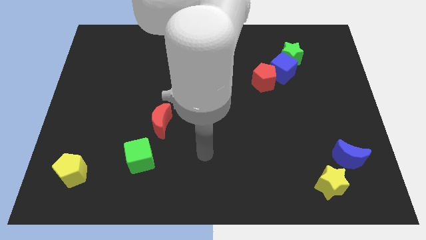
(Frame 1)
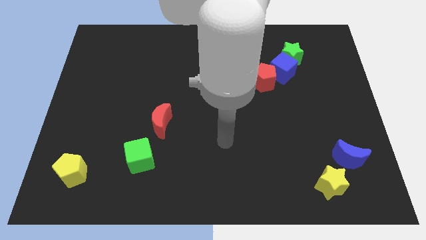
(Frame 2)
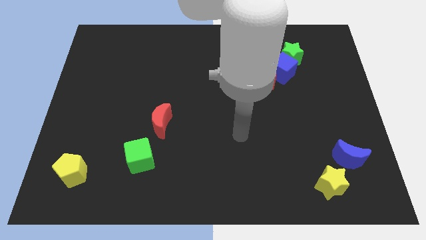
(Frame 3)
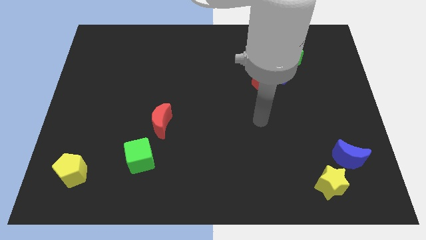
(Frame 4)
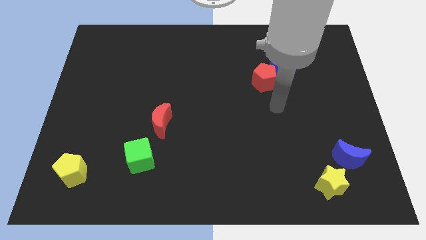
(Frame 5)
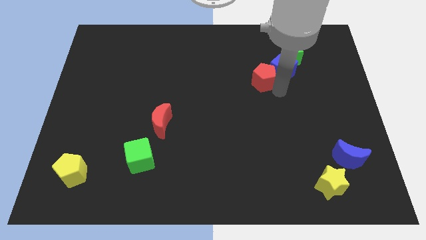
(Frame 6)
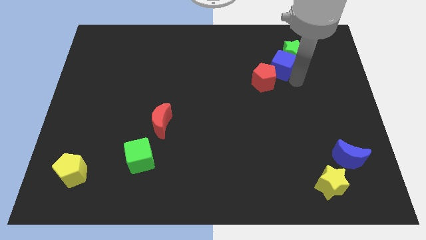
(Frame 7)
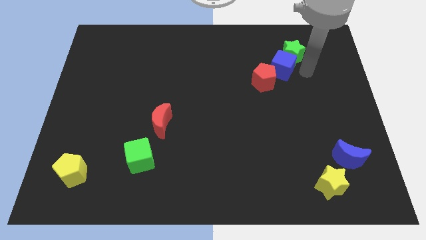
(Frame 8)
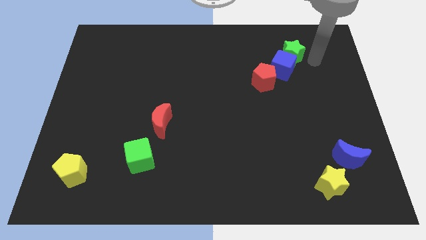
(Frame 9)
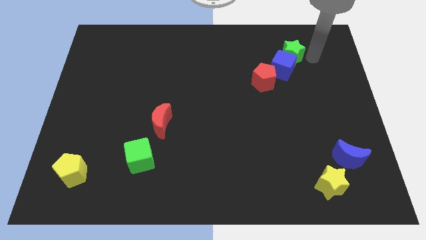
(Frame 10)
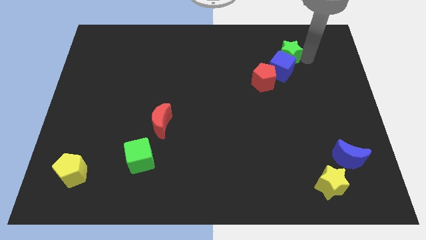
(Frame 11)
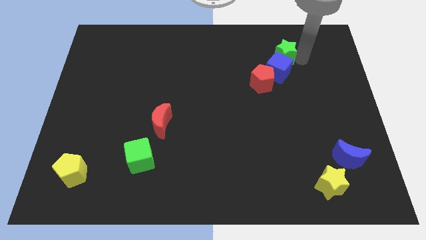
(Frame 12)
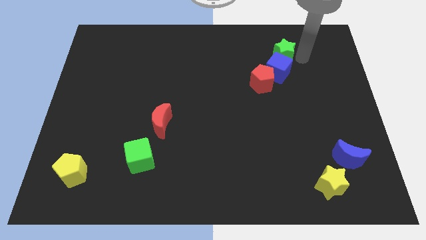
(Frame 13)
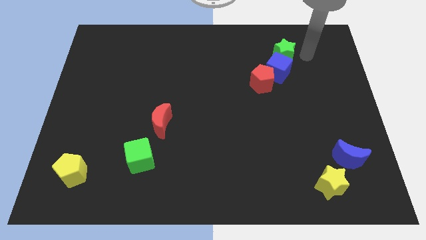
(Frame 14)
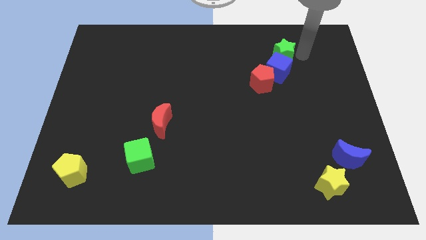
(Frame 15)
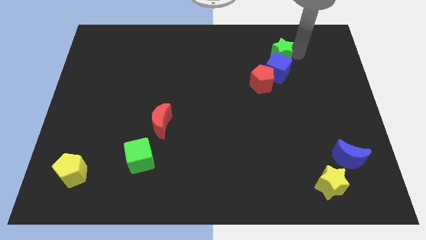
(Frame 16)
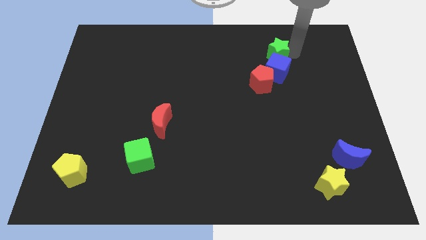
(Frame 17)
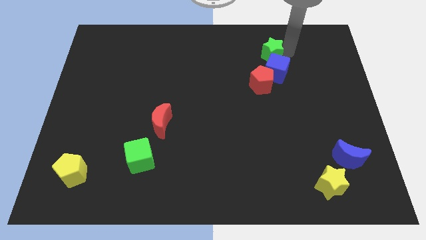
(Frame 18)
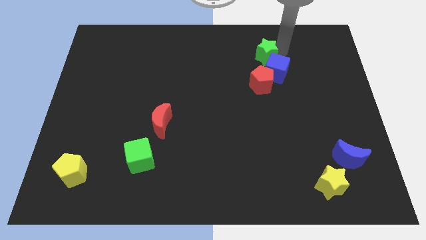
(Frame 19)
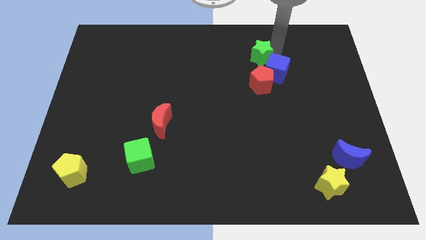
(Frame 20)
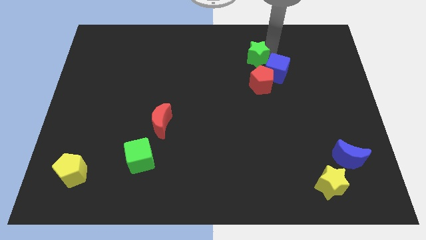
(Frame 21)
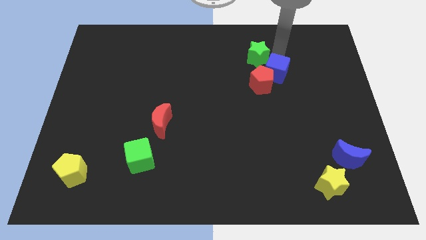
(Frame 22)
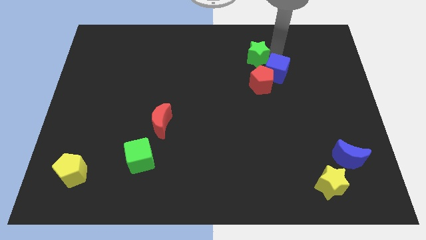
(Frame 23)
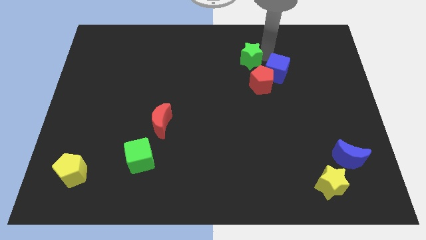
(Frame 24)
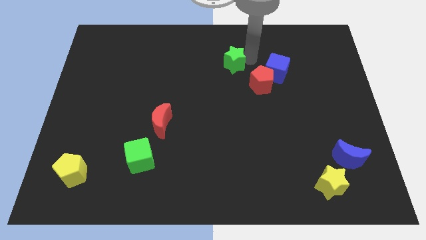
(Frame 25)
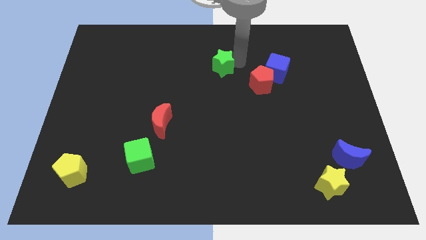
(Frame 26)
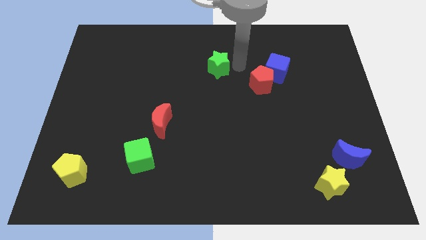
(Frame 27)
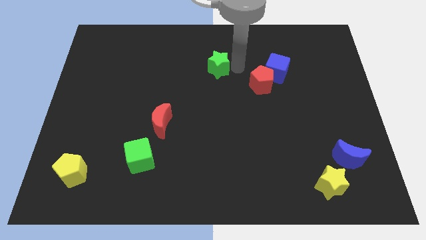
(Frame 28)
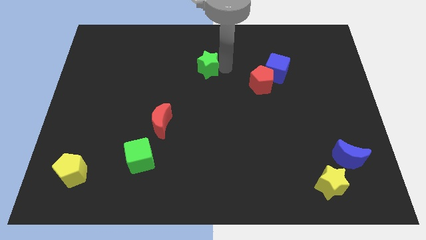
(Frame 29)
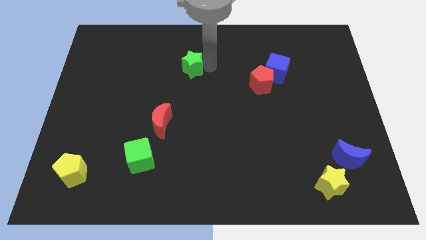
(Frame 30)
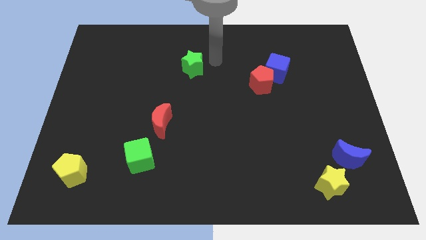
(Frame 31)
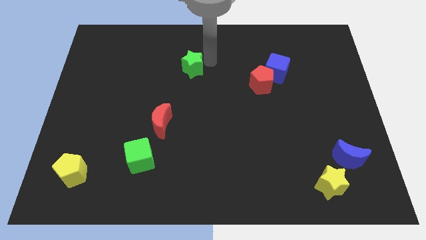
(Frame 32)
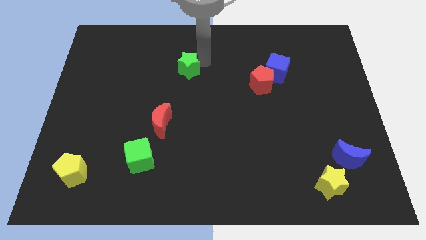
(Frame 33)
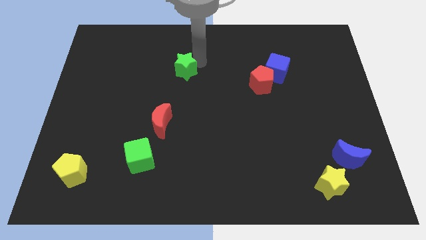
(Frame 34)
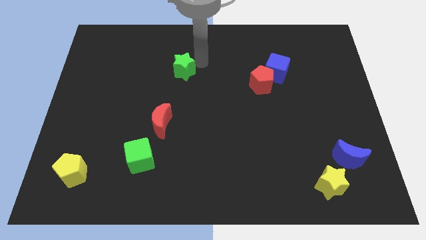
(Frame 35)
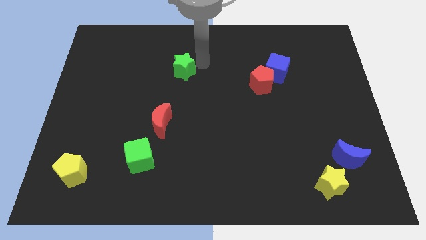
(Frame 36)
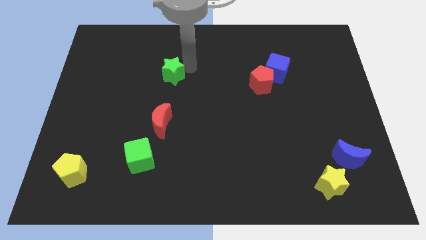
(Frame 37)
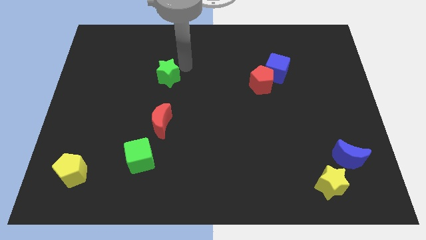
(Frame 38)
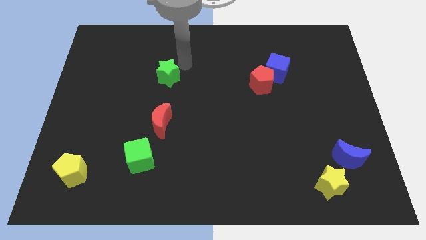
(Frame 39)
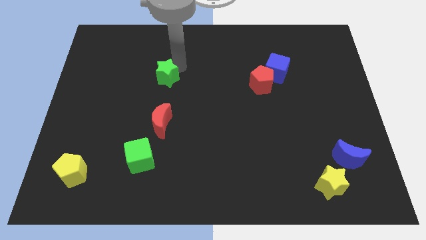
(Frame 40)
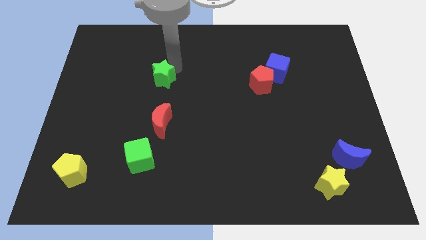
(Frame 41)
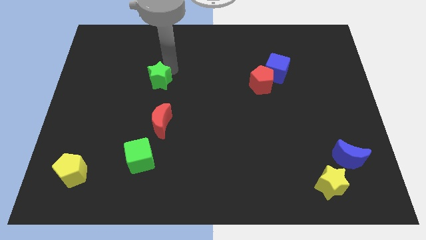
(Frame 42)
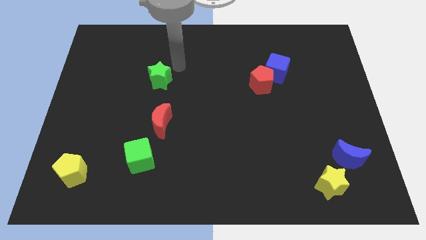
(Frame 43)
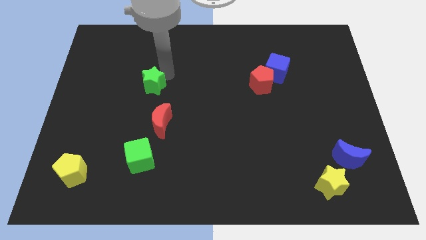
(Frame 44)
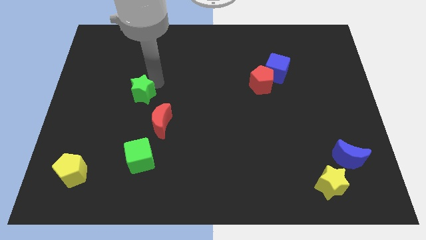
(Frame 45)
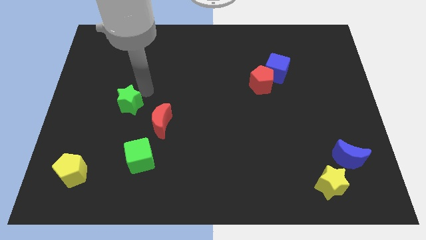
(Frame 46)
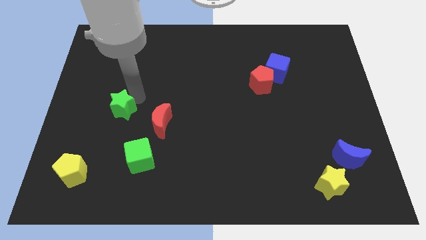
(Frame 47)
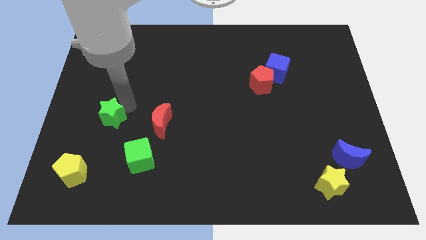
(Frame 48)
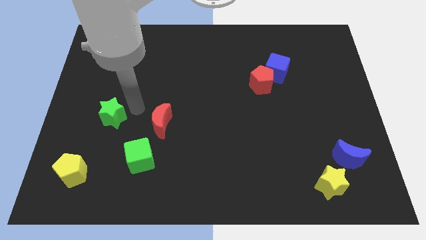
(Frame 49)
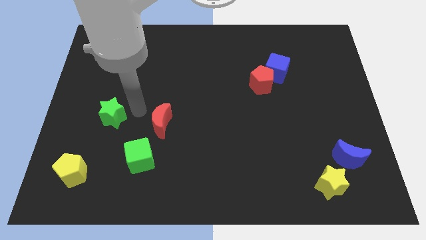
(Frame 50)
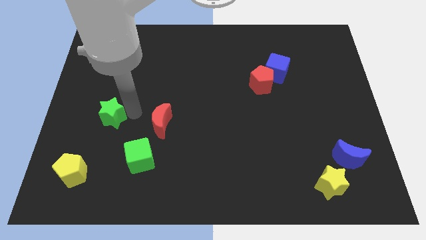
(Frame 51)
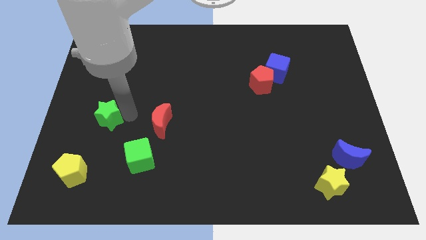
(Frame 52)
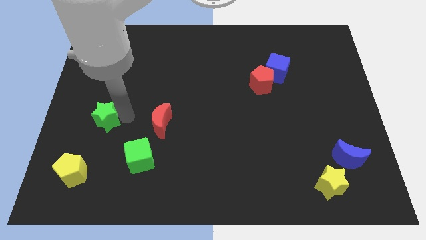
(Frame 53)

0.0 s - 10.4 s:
move the green star above the yellow pentagon

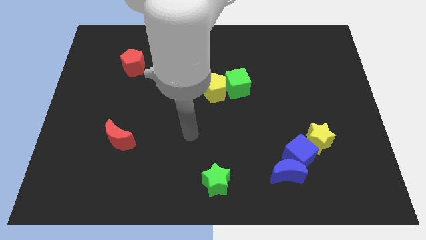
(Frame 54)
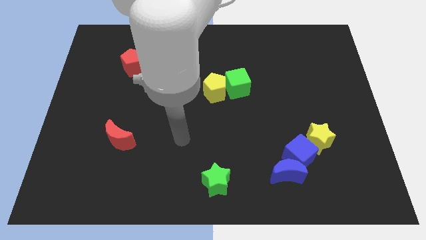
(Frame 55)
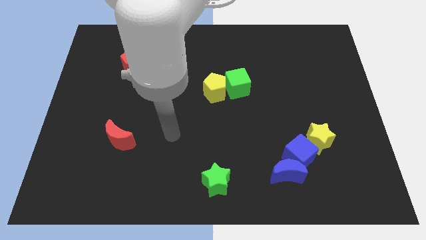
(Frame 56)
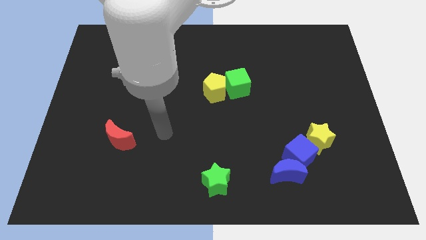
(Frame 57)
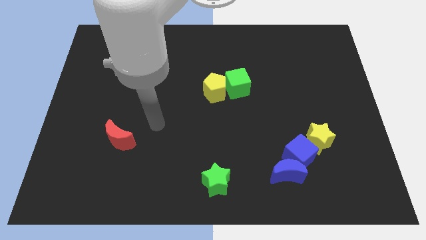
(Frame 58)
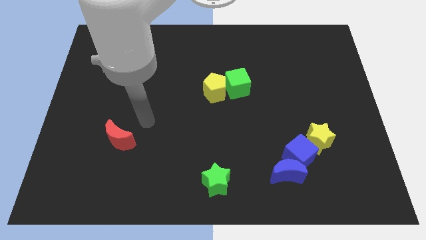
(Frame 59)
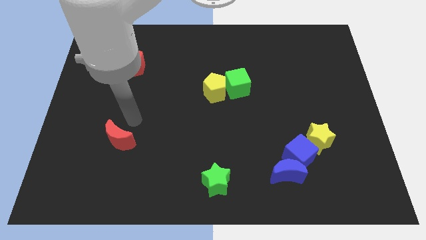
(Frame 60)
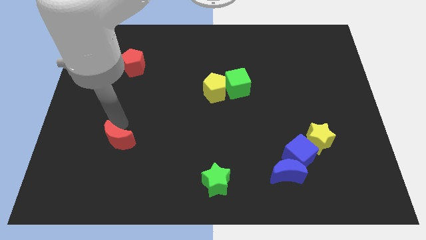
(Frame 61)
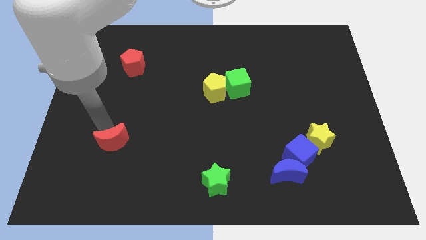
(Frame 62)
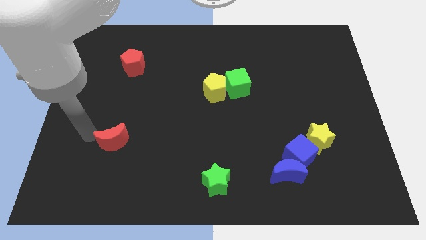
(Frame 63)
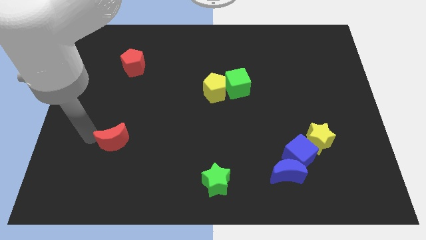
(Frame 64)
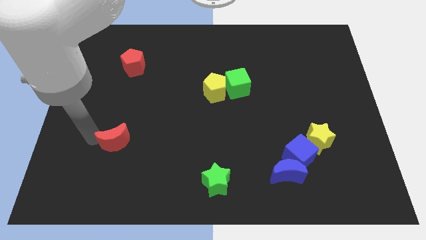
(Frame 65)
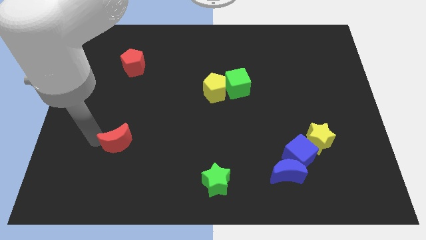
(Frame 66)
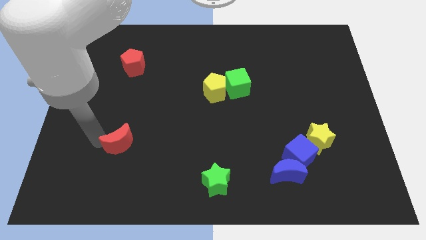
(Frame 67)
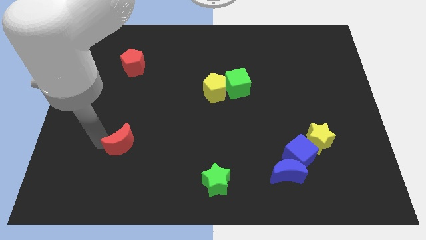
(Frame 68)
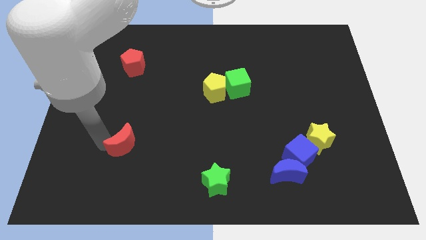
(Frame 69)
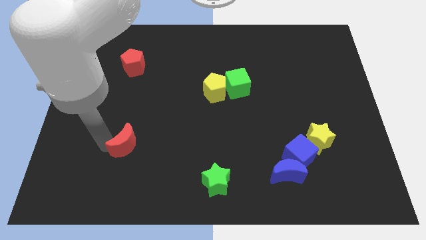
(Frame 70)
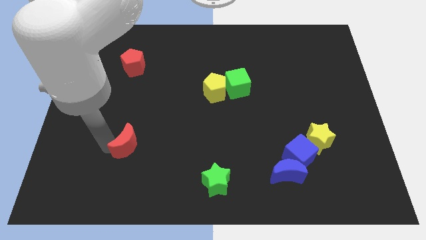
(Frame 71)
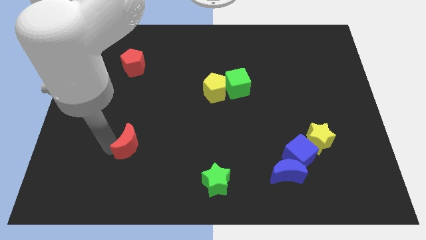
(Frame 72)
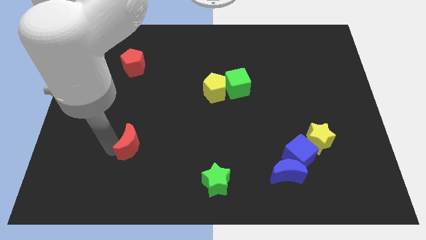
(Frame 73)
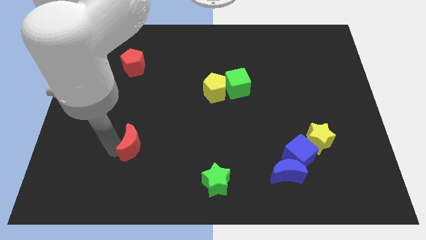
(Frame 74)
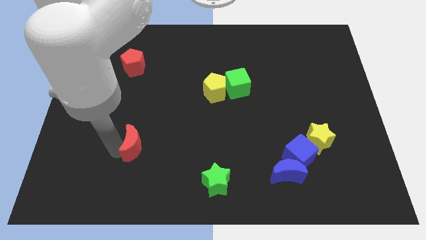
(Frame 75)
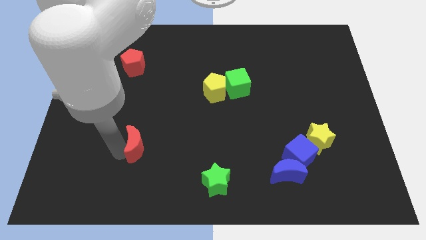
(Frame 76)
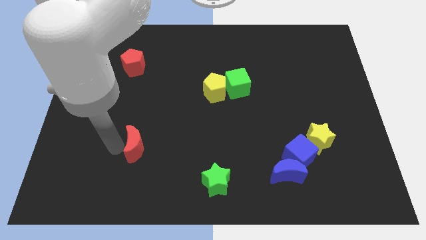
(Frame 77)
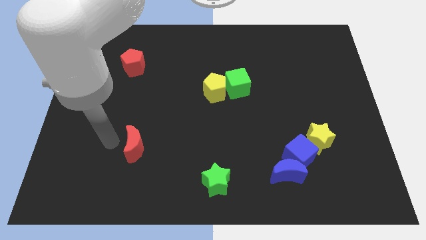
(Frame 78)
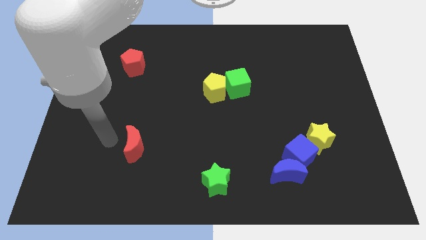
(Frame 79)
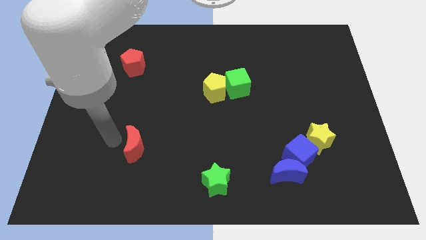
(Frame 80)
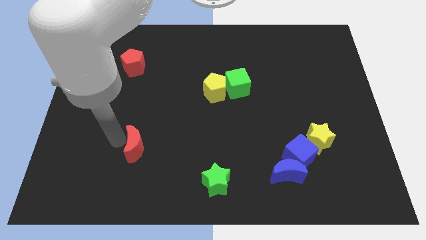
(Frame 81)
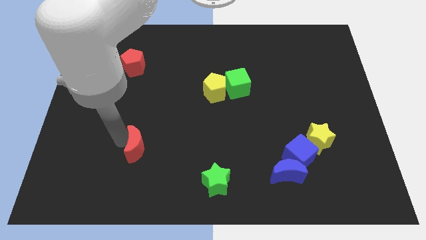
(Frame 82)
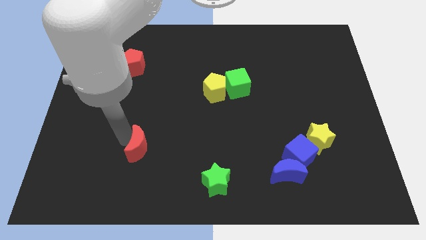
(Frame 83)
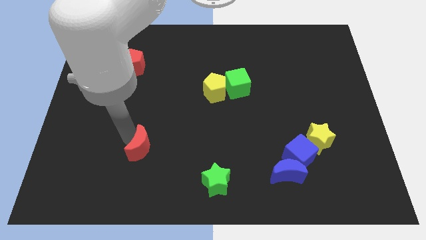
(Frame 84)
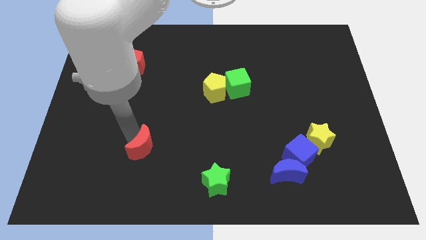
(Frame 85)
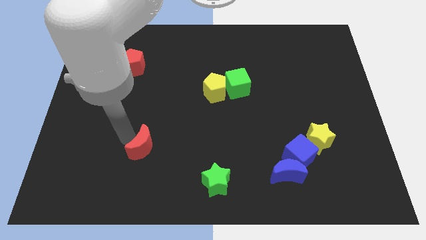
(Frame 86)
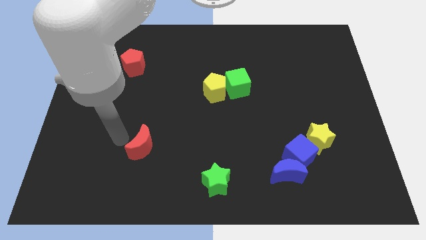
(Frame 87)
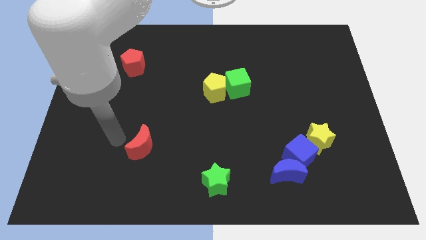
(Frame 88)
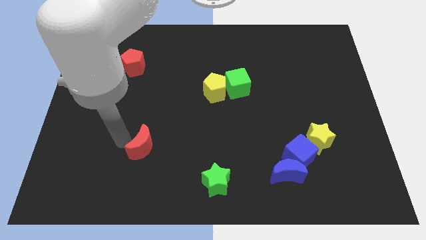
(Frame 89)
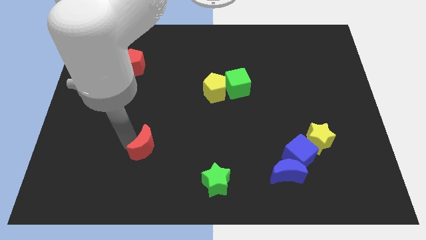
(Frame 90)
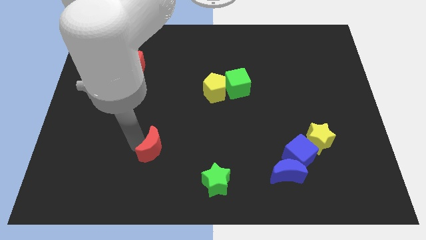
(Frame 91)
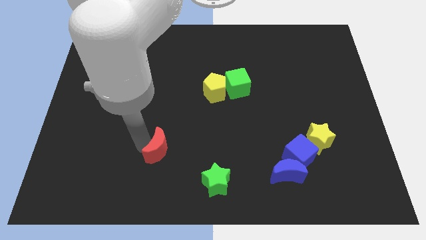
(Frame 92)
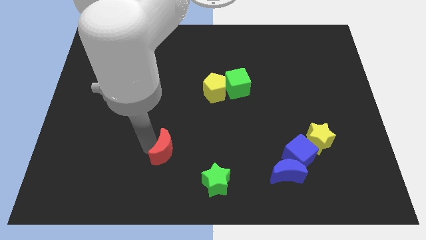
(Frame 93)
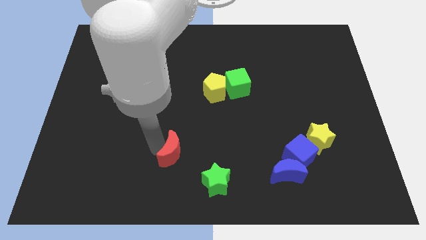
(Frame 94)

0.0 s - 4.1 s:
move the red moon to the top left side of the green star
